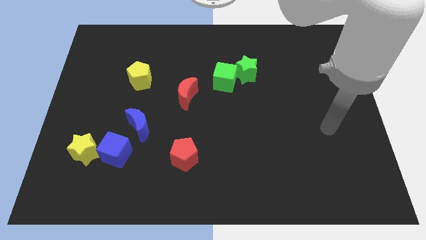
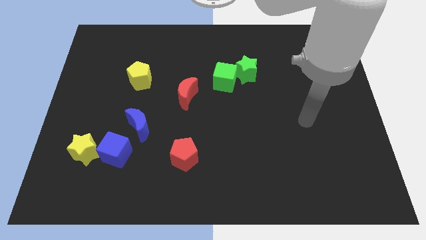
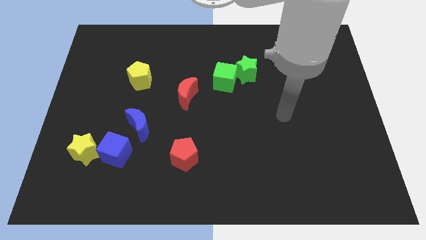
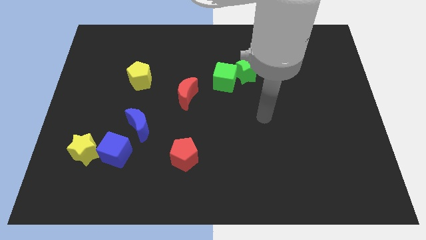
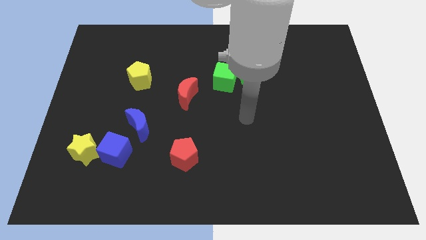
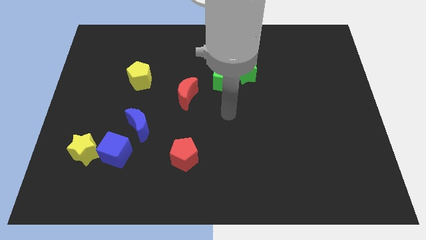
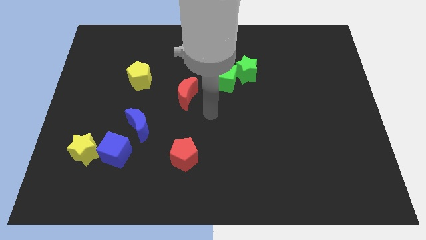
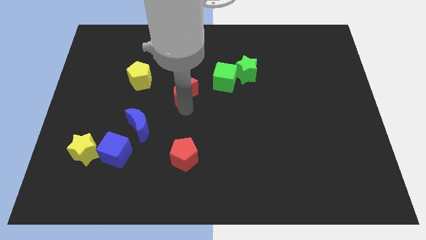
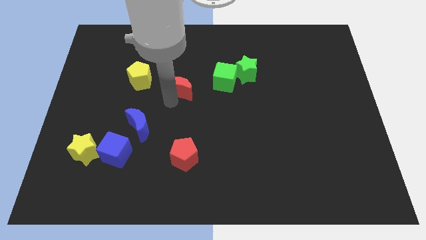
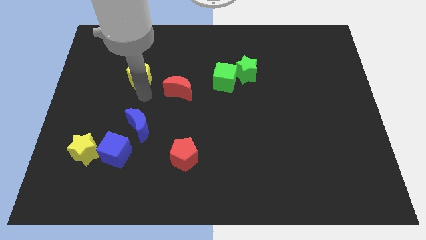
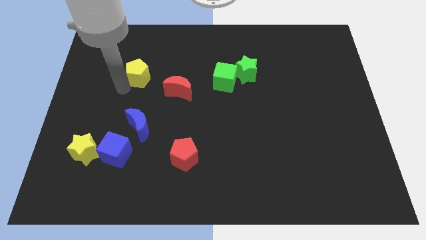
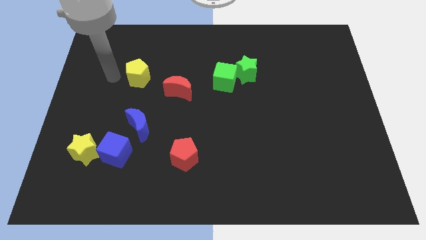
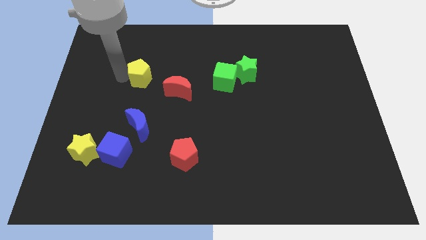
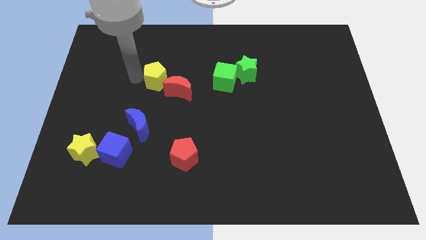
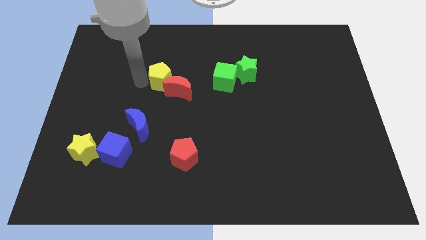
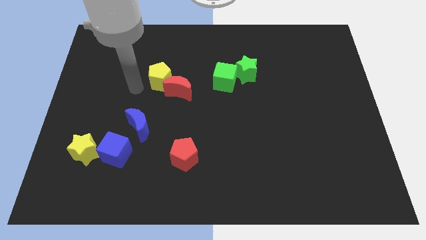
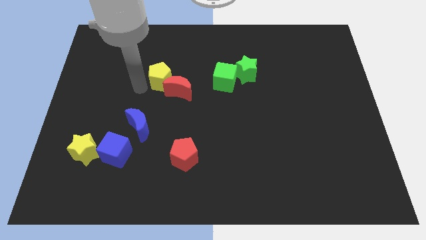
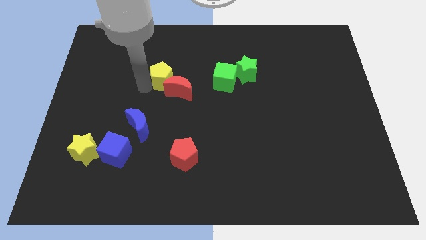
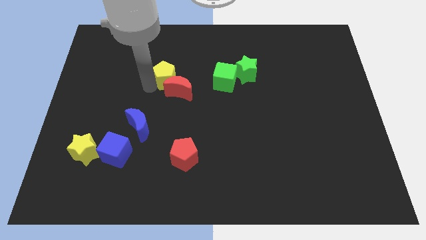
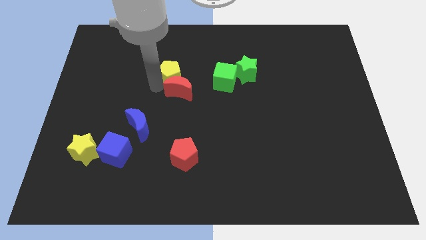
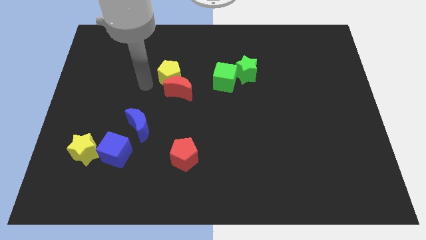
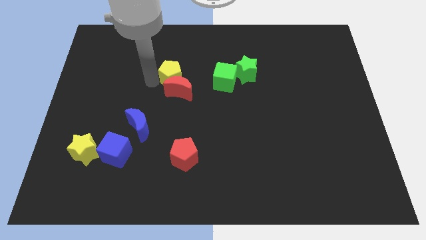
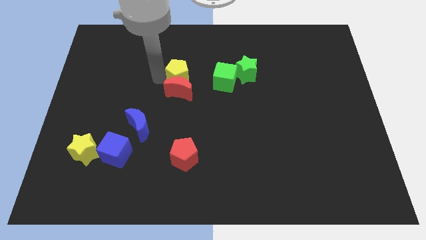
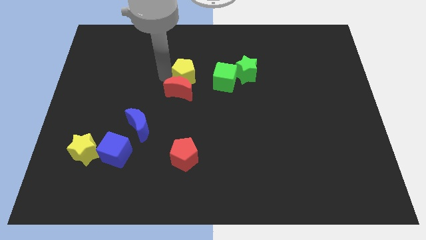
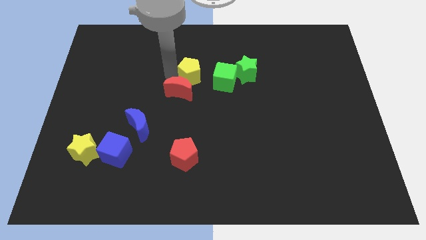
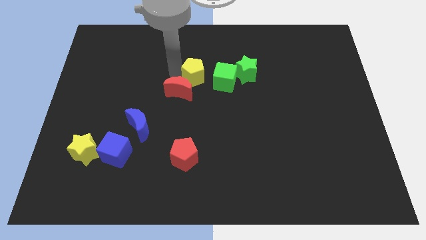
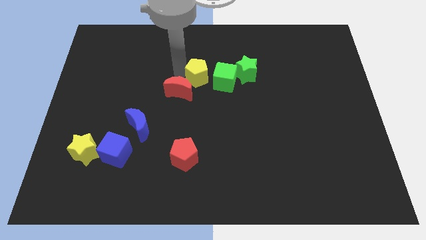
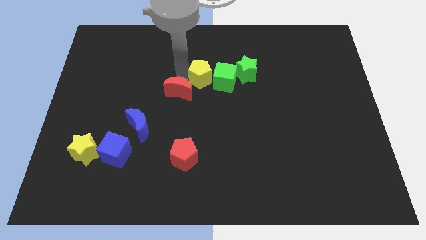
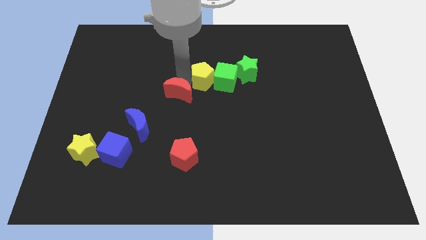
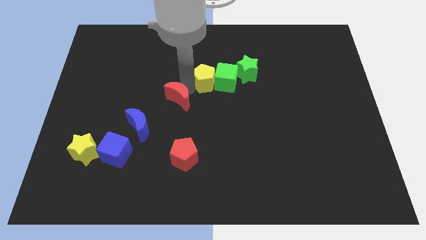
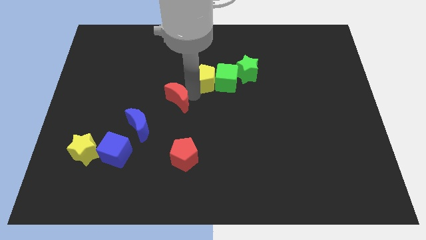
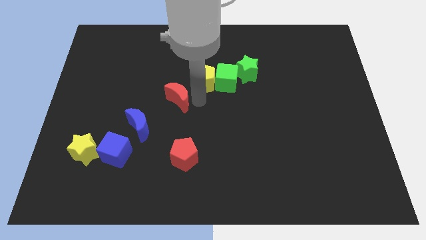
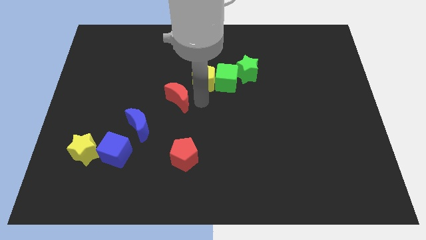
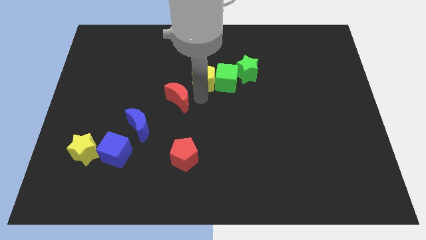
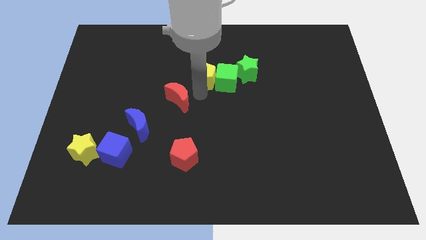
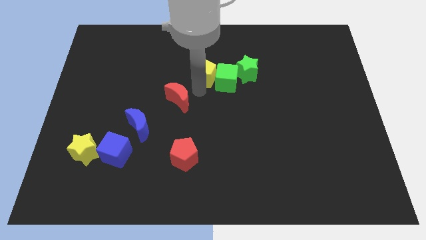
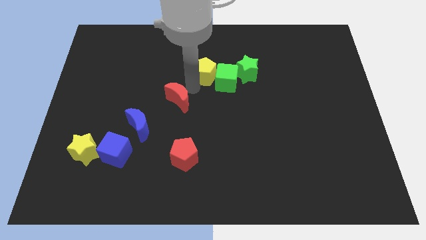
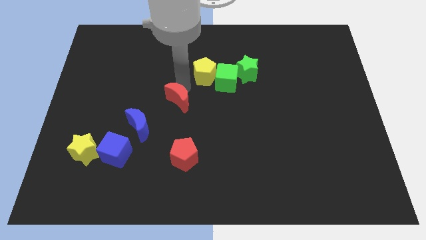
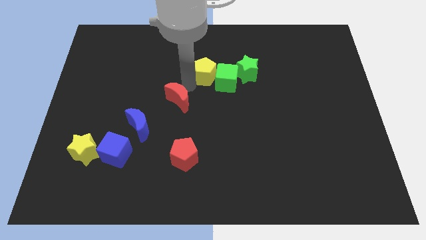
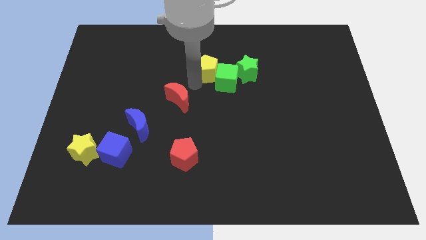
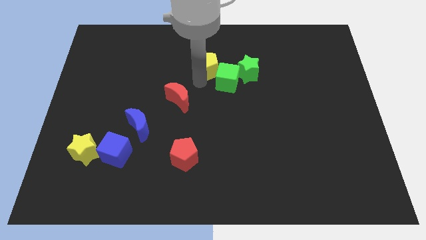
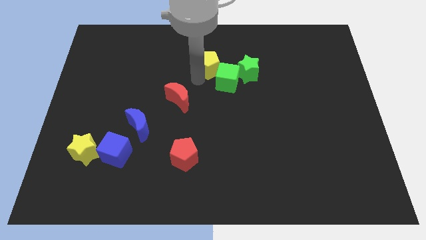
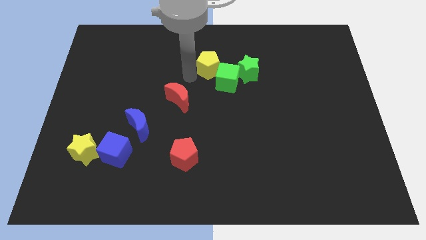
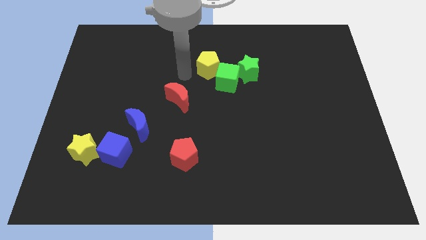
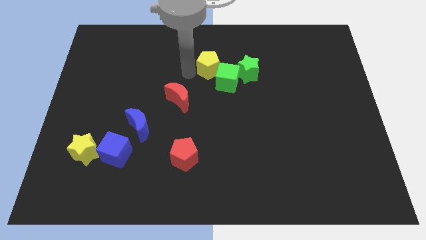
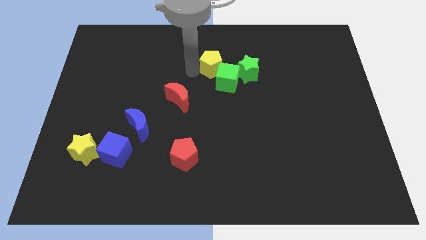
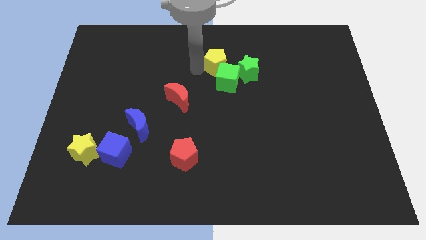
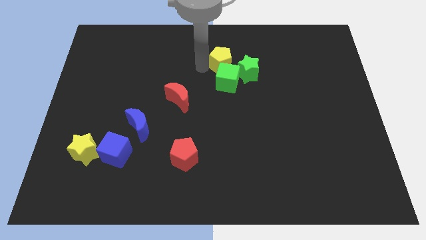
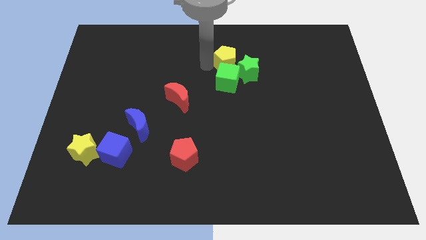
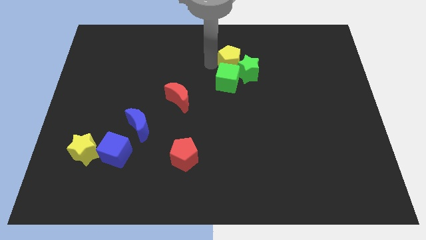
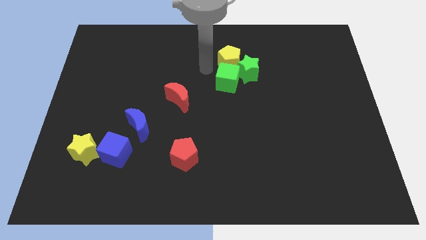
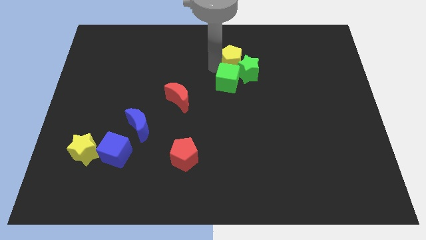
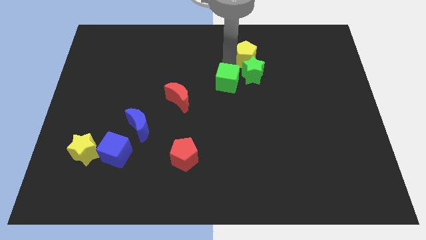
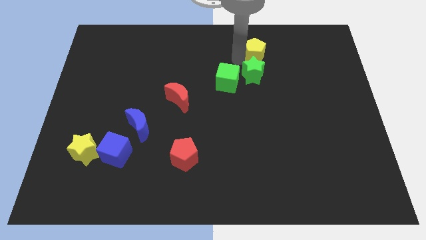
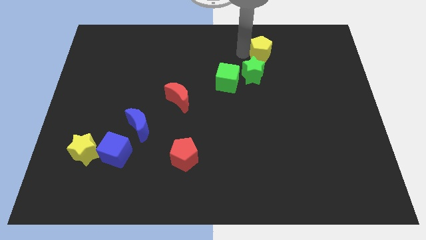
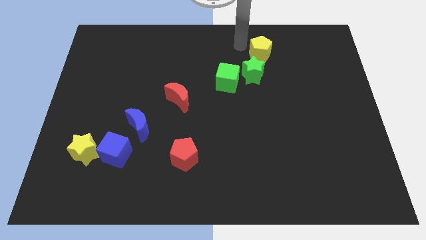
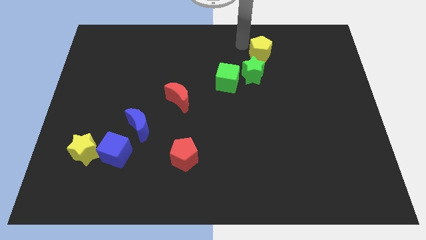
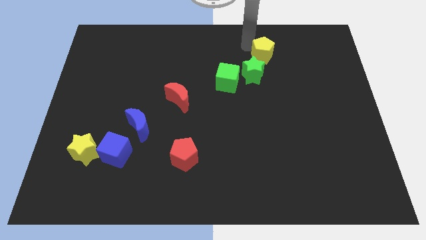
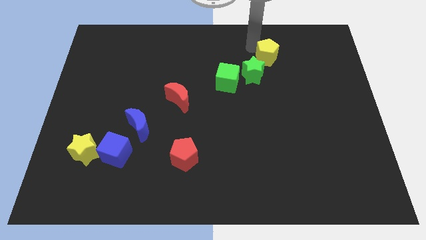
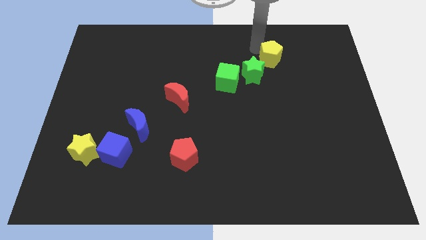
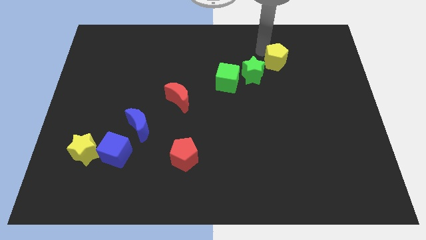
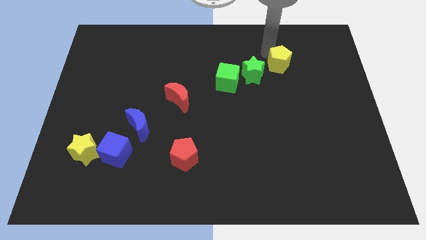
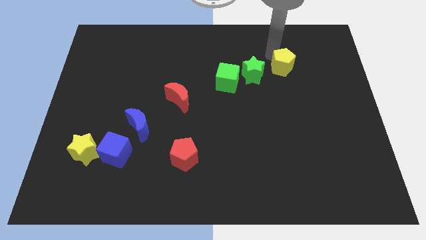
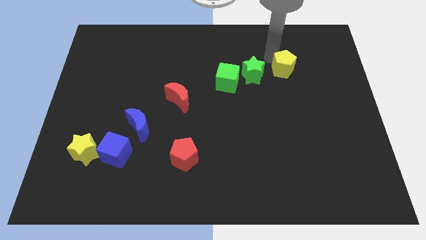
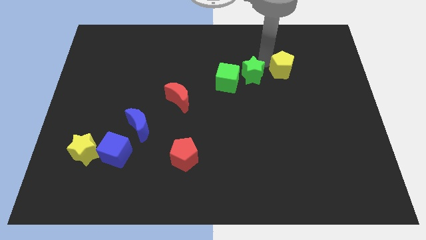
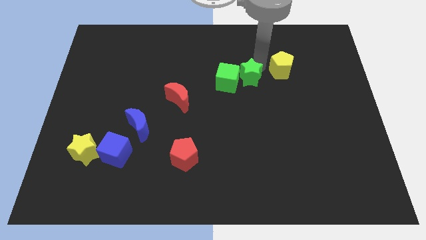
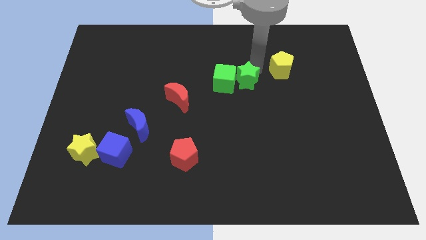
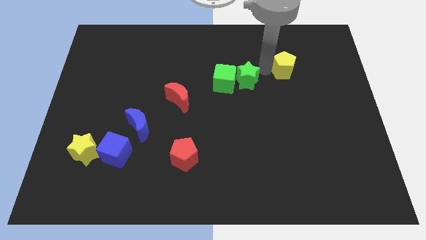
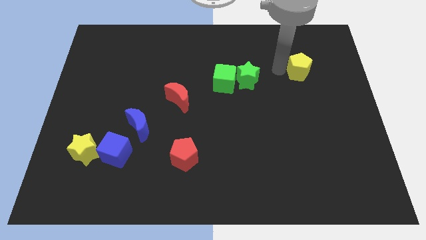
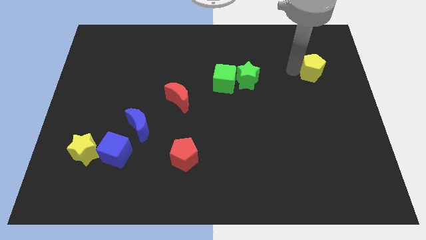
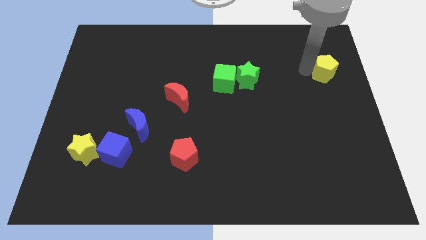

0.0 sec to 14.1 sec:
put the yellow pentagon to the center right
